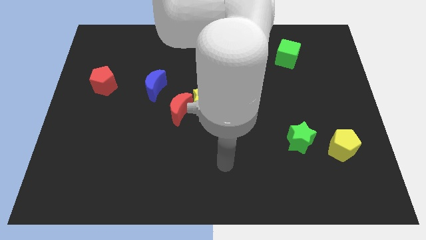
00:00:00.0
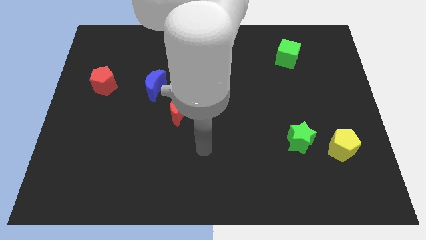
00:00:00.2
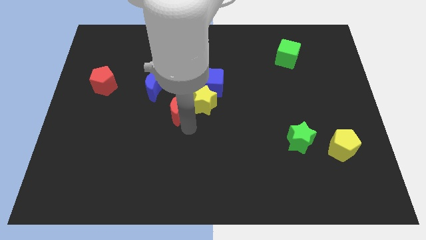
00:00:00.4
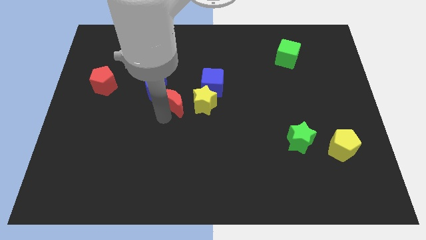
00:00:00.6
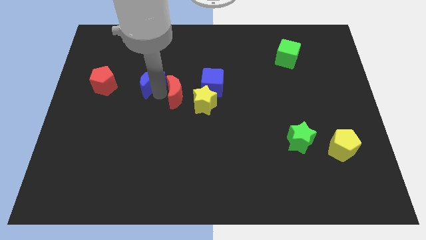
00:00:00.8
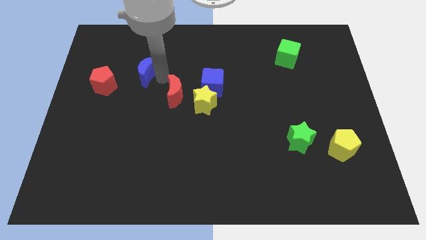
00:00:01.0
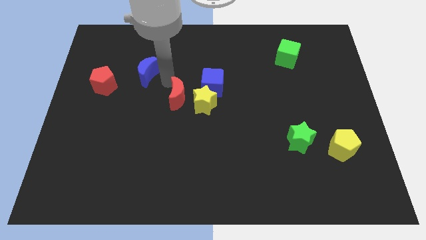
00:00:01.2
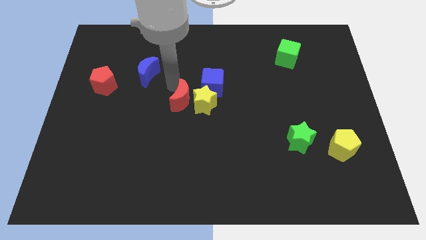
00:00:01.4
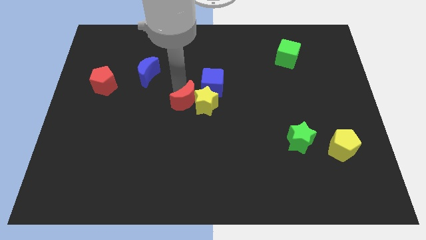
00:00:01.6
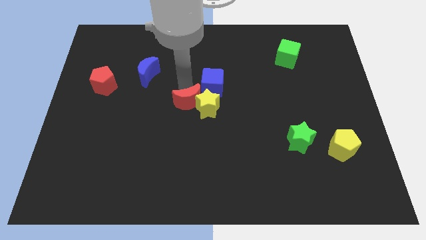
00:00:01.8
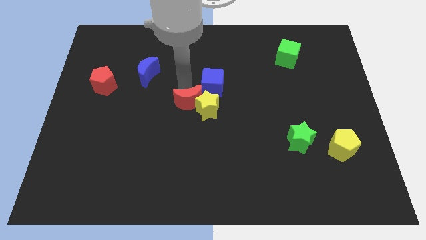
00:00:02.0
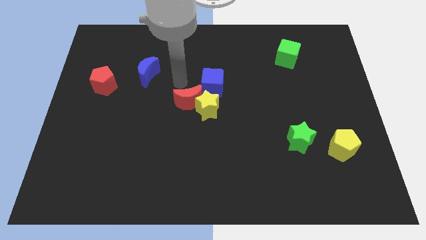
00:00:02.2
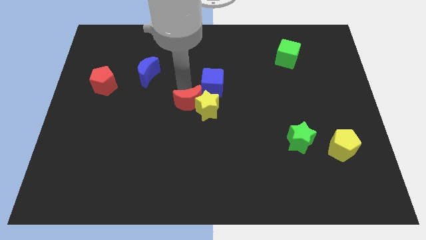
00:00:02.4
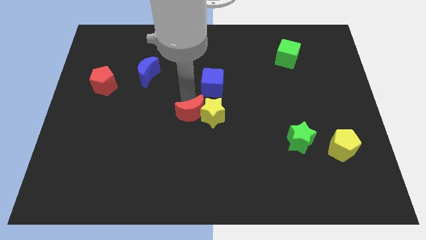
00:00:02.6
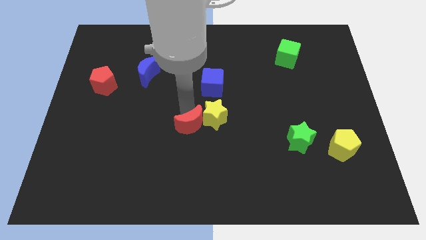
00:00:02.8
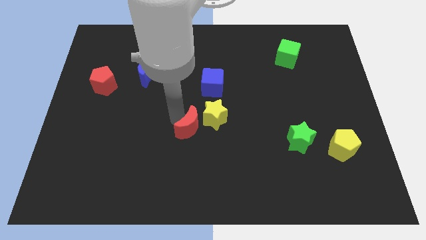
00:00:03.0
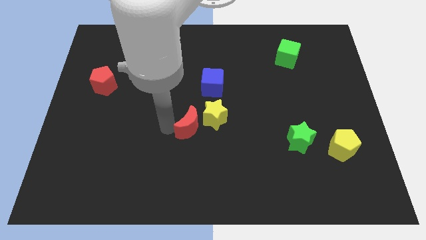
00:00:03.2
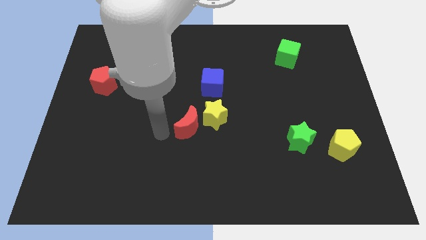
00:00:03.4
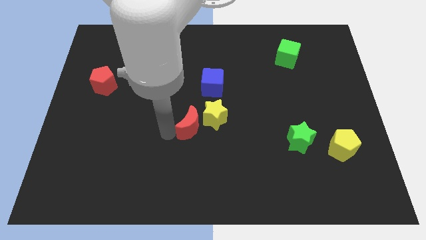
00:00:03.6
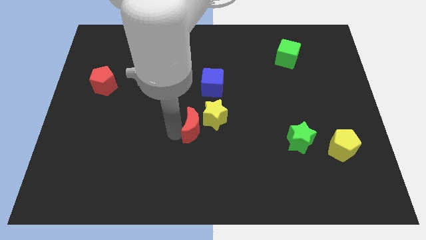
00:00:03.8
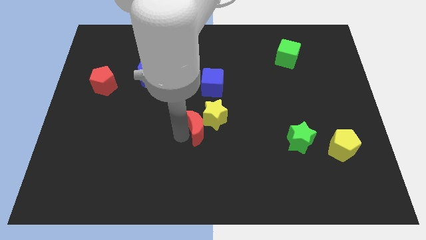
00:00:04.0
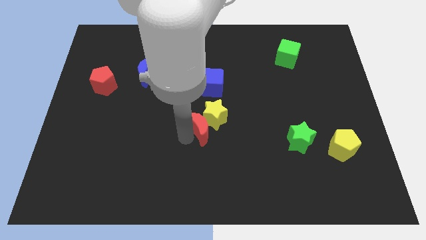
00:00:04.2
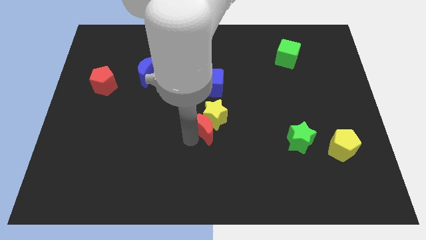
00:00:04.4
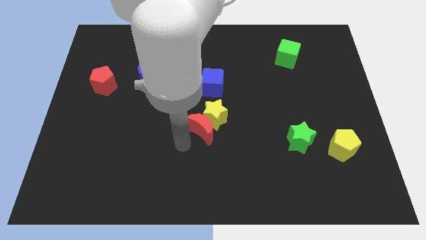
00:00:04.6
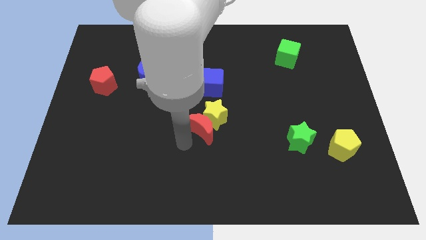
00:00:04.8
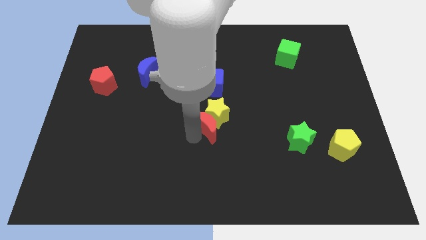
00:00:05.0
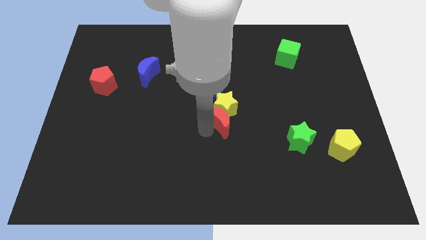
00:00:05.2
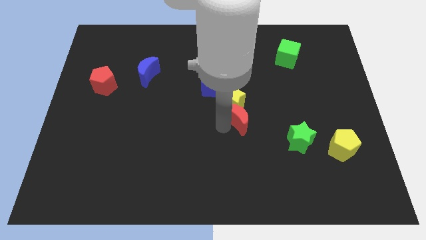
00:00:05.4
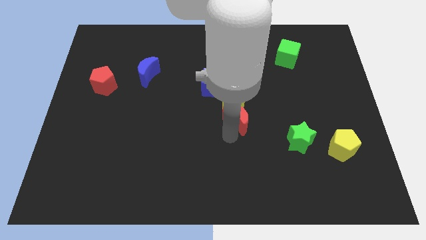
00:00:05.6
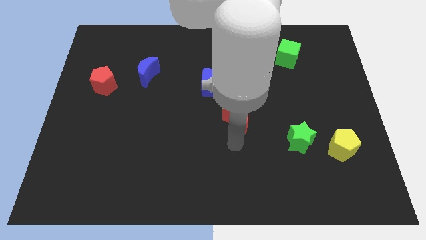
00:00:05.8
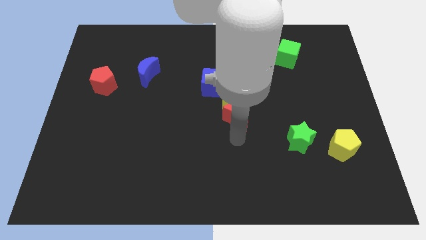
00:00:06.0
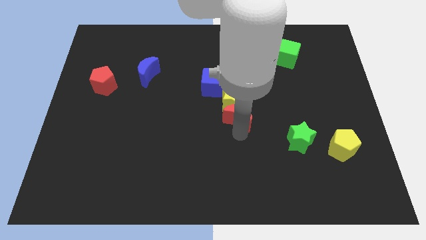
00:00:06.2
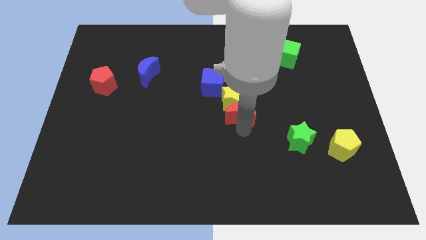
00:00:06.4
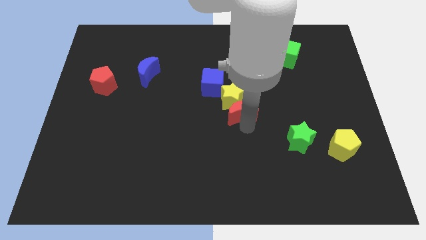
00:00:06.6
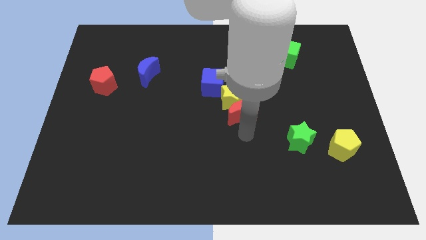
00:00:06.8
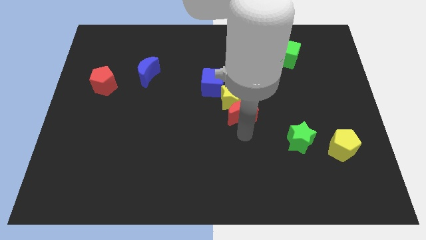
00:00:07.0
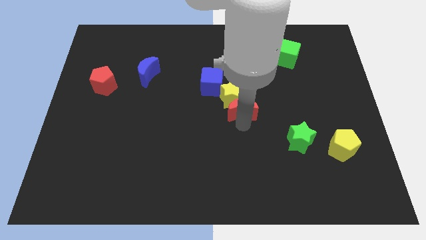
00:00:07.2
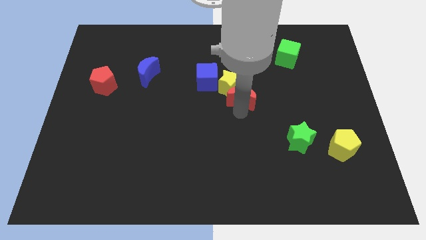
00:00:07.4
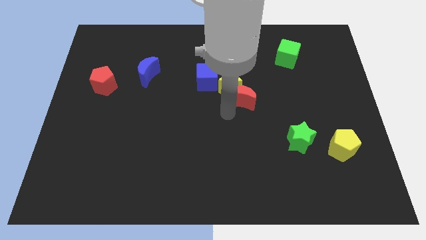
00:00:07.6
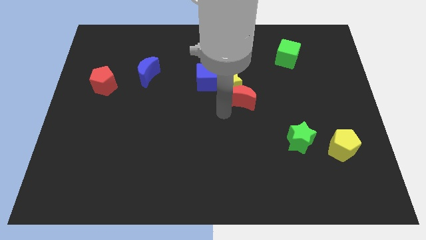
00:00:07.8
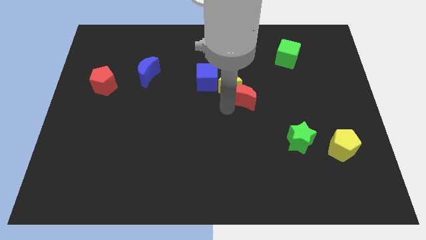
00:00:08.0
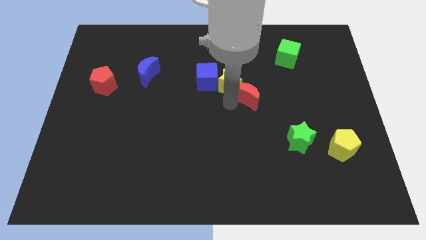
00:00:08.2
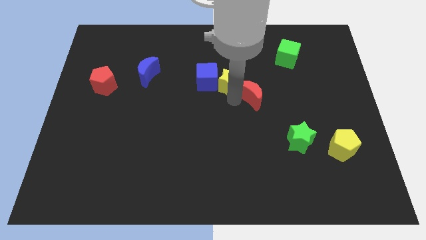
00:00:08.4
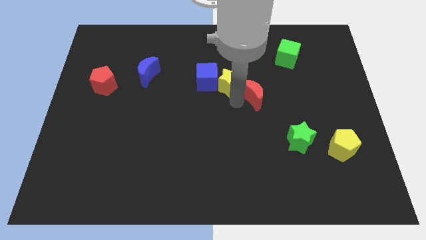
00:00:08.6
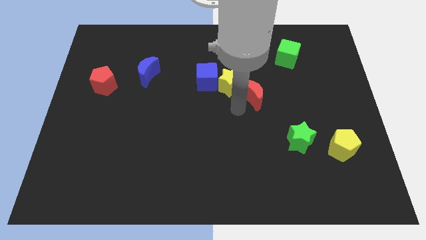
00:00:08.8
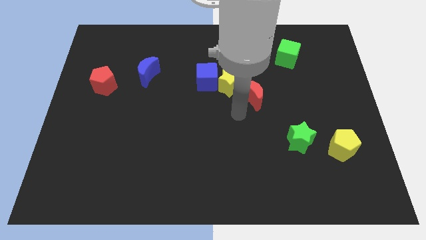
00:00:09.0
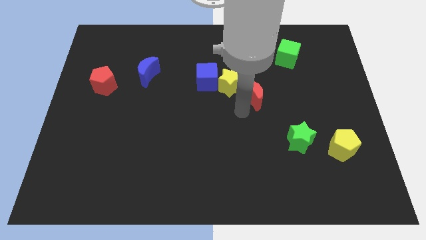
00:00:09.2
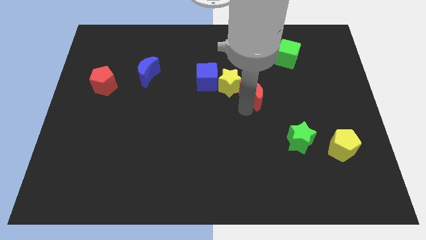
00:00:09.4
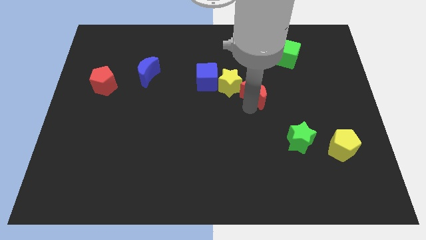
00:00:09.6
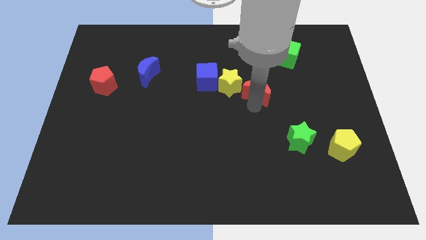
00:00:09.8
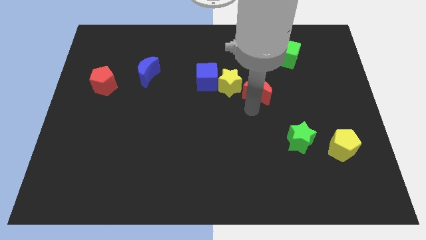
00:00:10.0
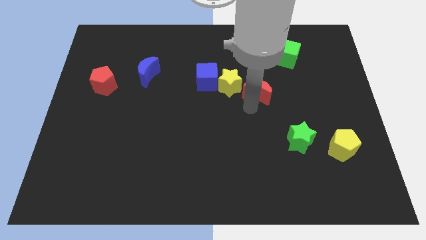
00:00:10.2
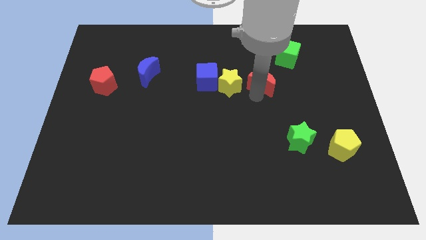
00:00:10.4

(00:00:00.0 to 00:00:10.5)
move the red moon to the bottom left of the green cube

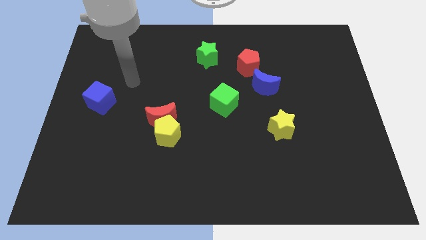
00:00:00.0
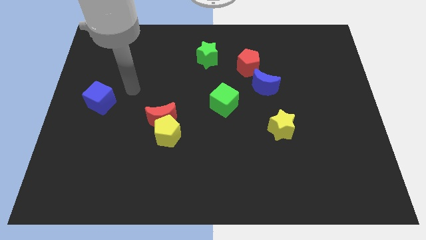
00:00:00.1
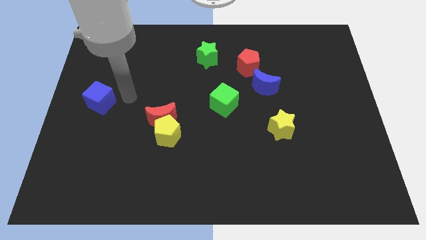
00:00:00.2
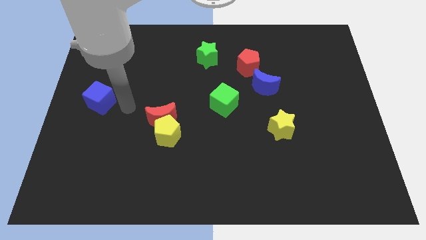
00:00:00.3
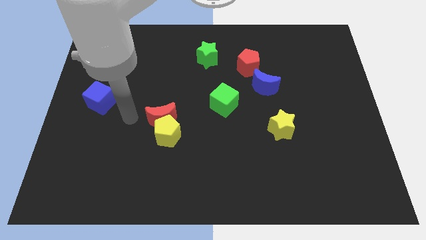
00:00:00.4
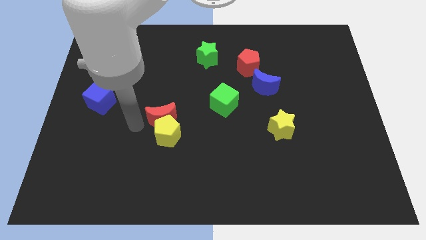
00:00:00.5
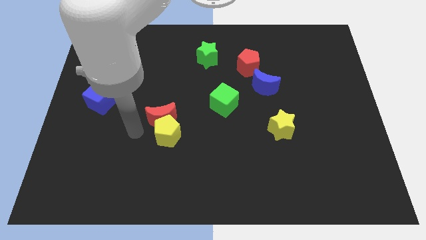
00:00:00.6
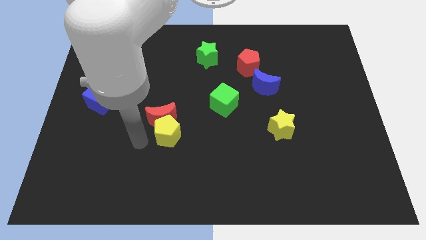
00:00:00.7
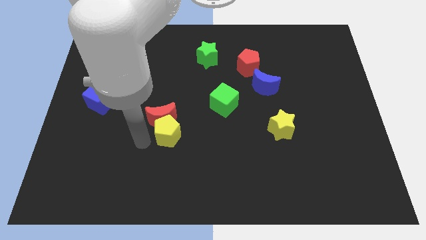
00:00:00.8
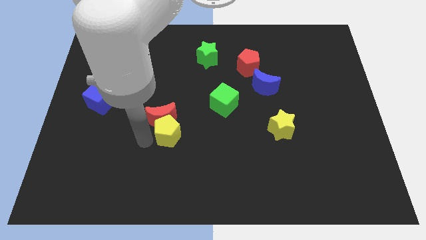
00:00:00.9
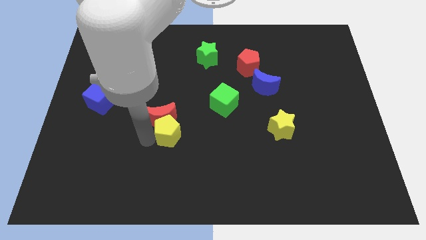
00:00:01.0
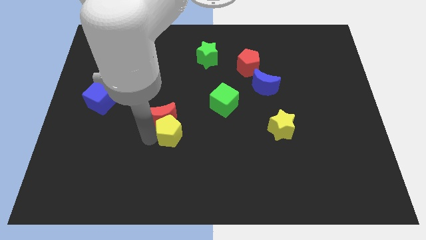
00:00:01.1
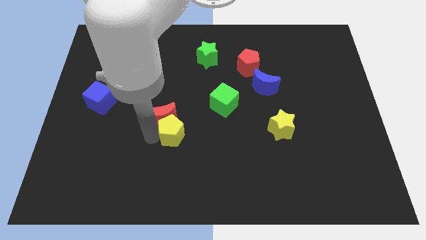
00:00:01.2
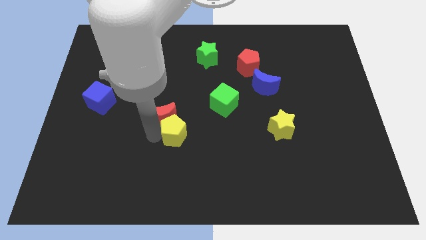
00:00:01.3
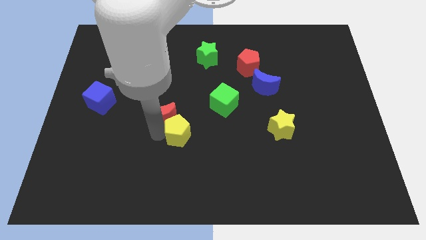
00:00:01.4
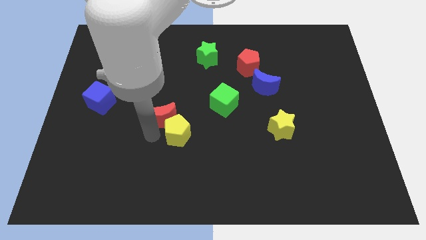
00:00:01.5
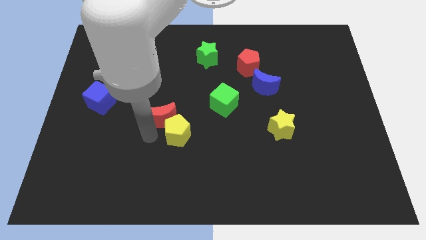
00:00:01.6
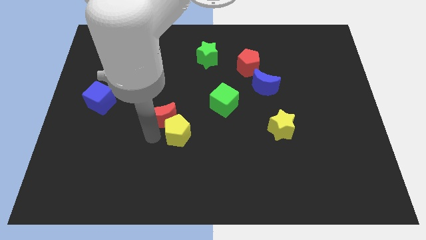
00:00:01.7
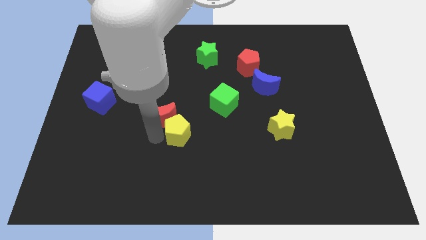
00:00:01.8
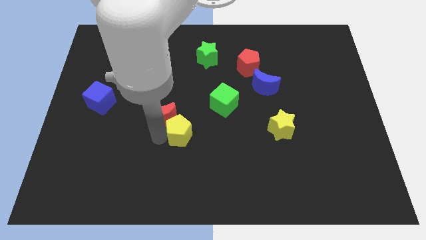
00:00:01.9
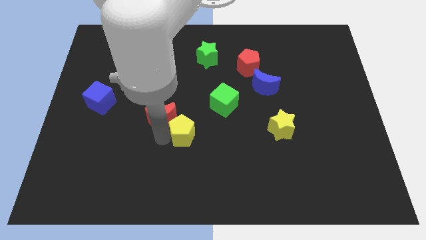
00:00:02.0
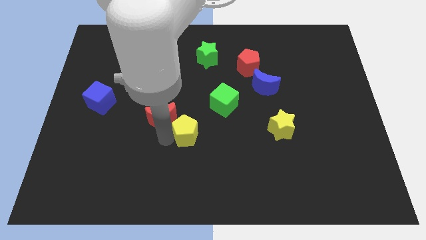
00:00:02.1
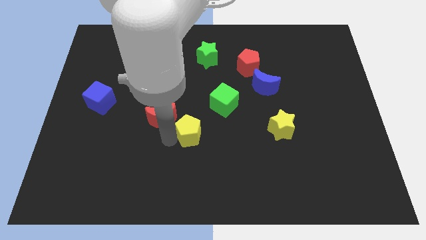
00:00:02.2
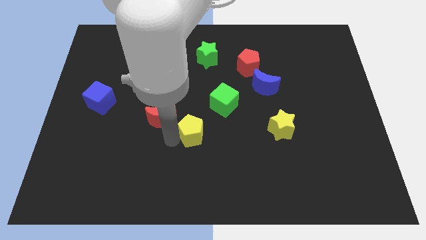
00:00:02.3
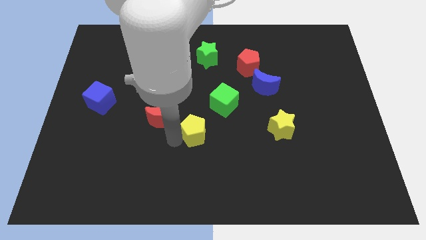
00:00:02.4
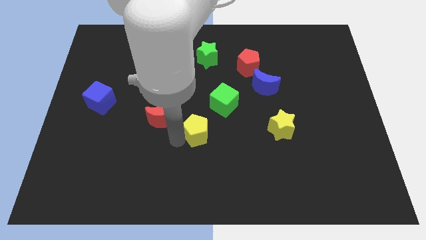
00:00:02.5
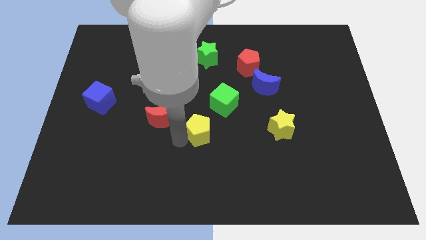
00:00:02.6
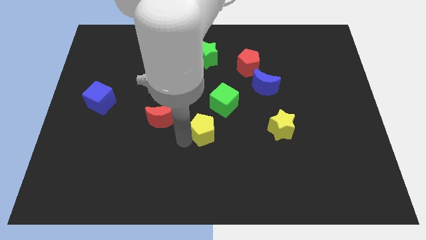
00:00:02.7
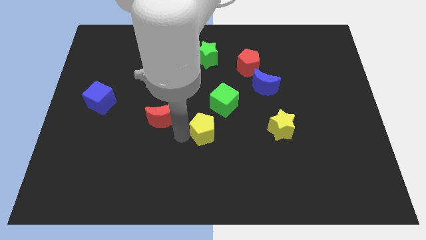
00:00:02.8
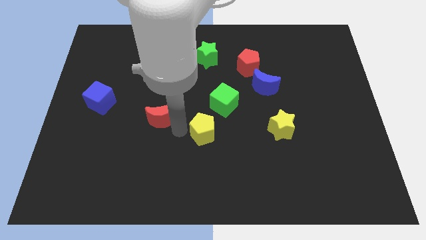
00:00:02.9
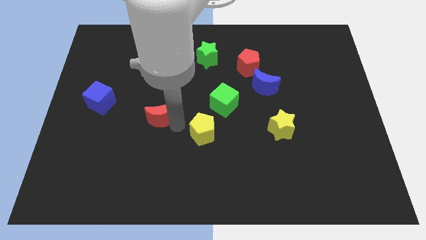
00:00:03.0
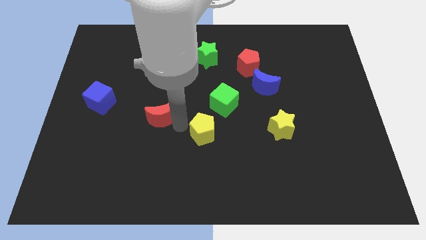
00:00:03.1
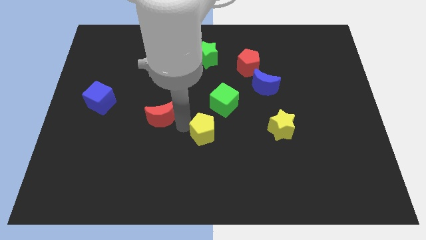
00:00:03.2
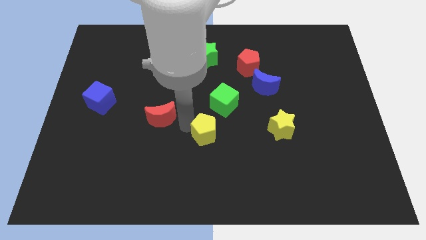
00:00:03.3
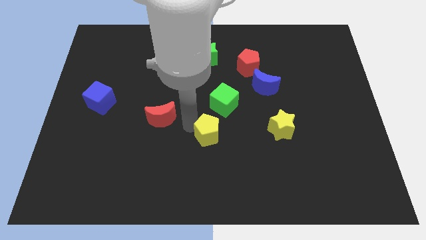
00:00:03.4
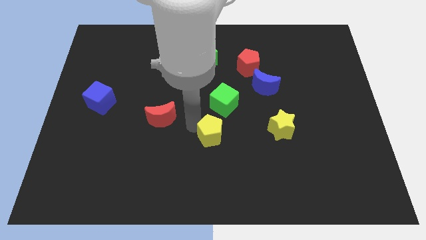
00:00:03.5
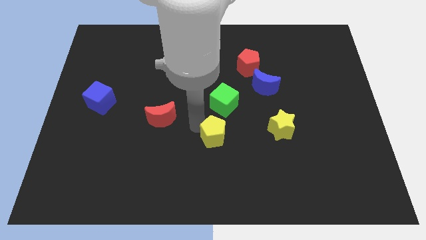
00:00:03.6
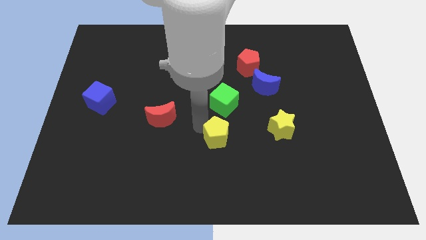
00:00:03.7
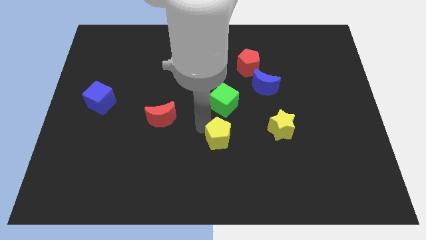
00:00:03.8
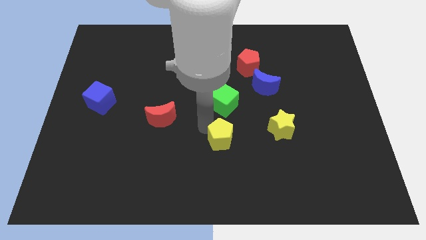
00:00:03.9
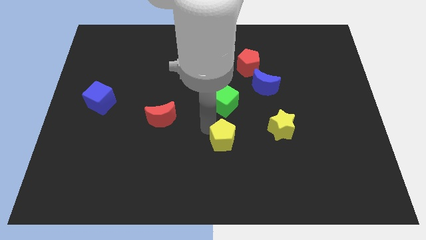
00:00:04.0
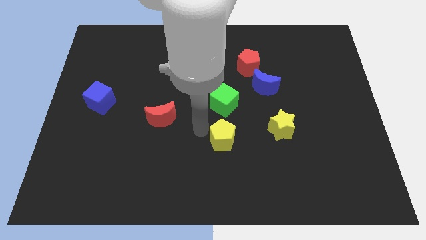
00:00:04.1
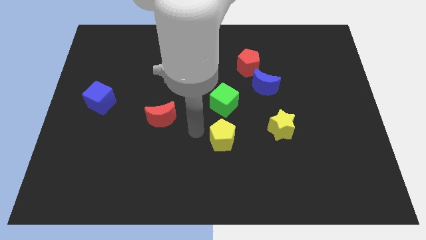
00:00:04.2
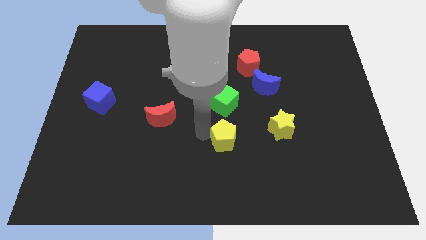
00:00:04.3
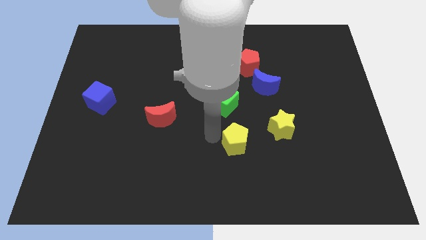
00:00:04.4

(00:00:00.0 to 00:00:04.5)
push the yellow pentagon to the bottom left side of the yellow star
